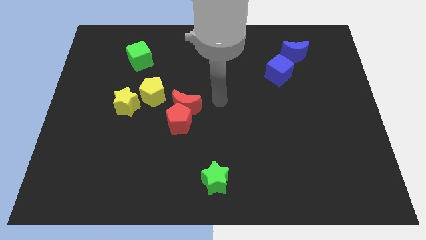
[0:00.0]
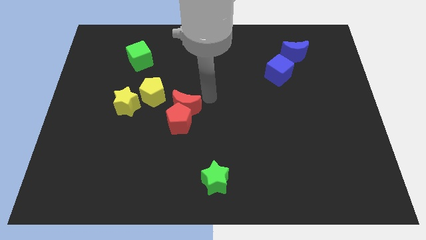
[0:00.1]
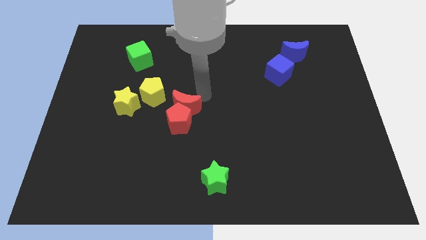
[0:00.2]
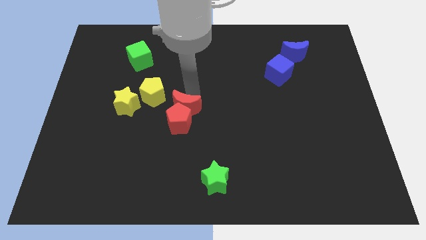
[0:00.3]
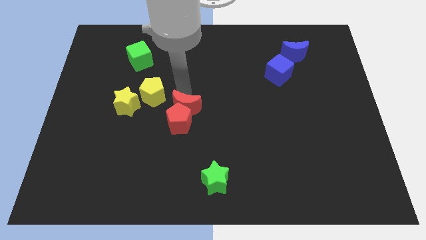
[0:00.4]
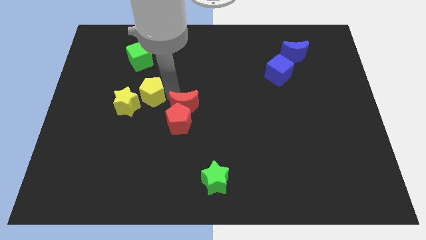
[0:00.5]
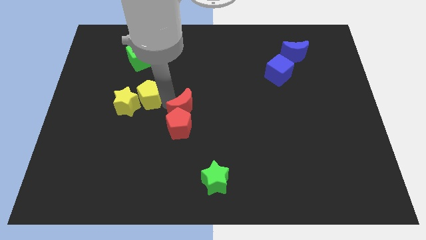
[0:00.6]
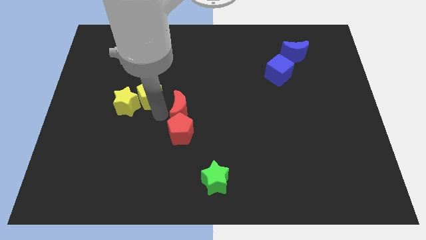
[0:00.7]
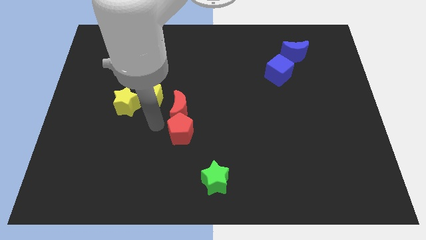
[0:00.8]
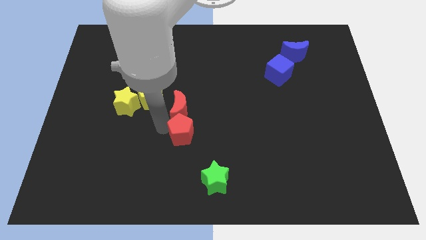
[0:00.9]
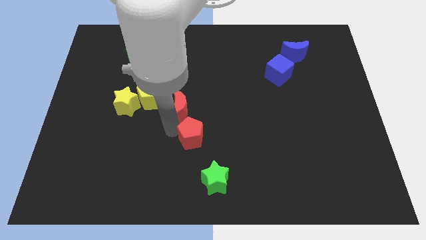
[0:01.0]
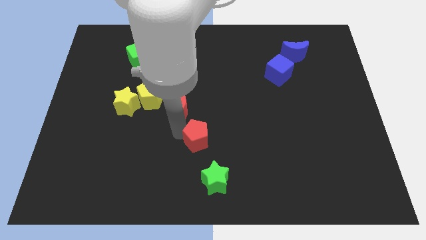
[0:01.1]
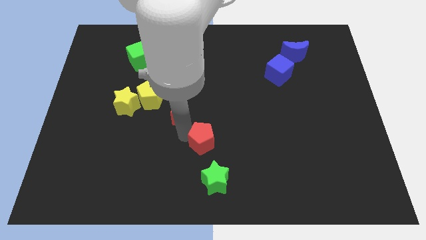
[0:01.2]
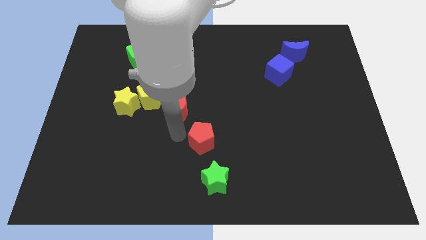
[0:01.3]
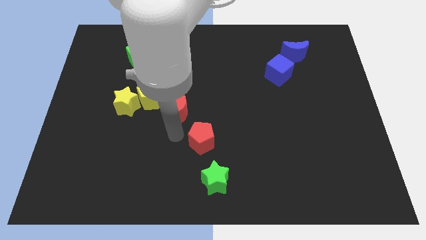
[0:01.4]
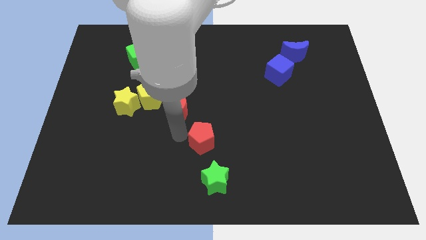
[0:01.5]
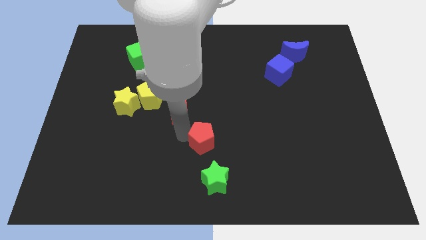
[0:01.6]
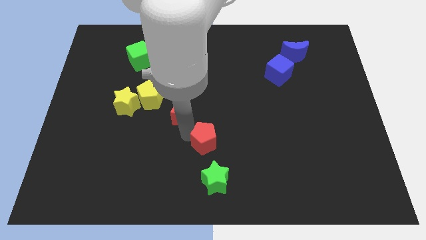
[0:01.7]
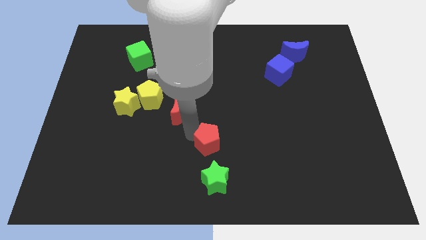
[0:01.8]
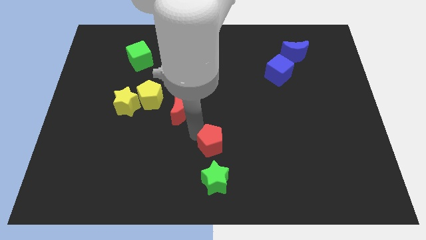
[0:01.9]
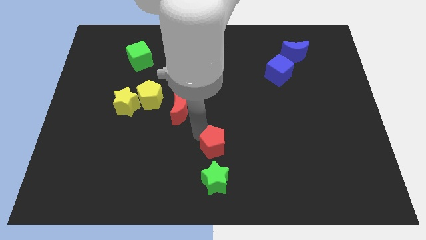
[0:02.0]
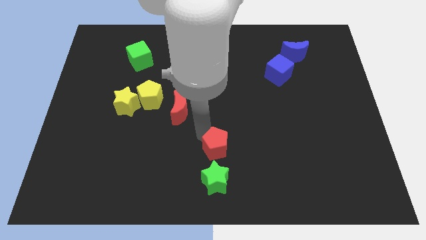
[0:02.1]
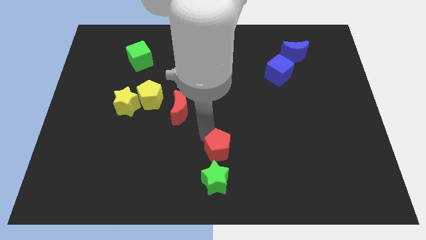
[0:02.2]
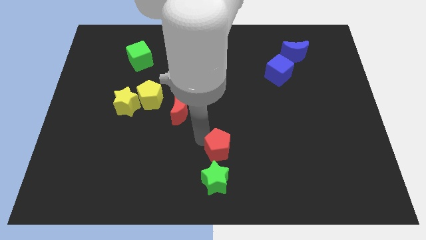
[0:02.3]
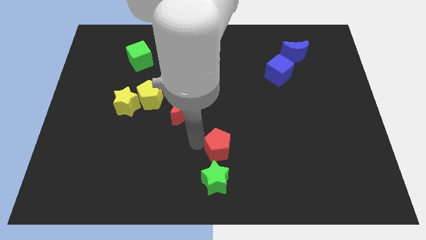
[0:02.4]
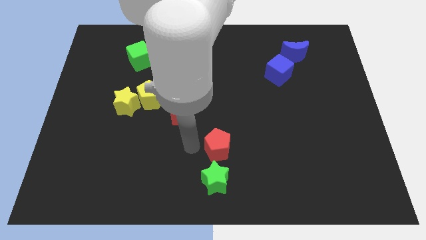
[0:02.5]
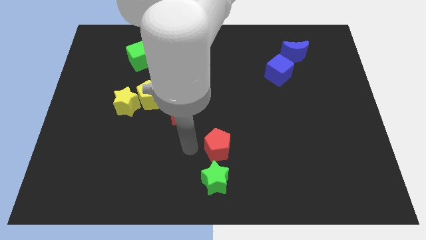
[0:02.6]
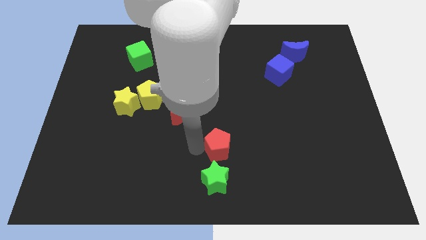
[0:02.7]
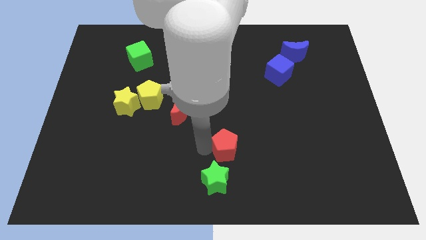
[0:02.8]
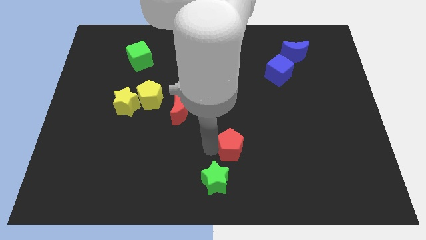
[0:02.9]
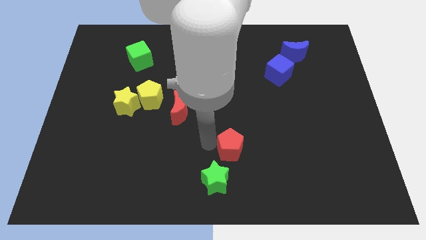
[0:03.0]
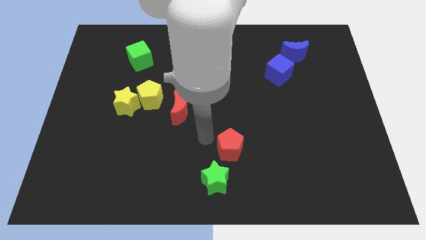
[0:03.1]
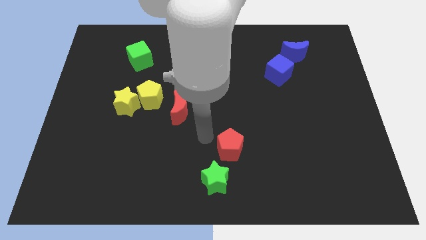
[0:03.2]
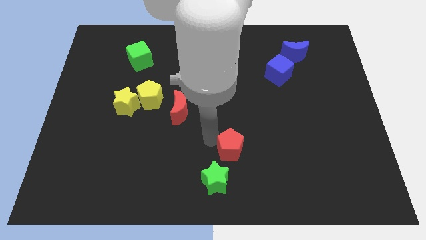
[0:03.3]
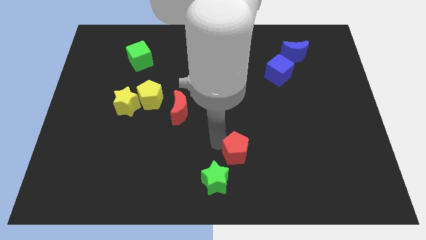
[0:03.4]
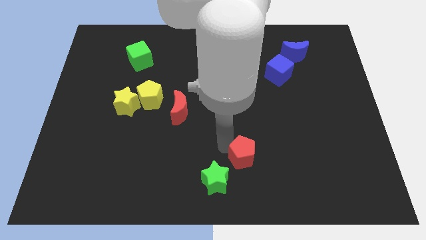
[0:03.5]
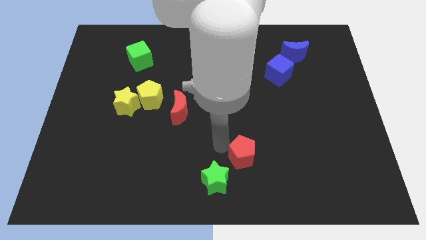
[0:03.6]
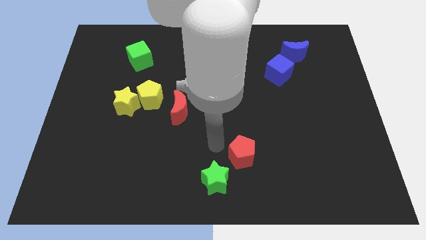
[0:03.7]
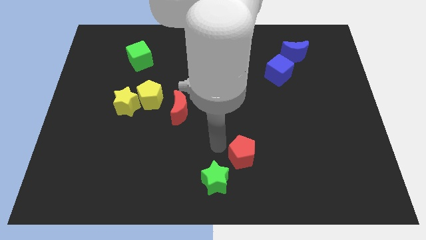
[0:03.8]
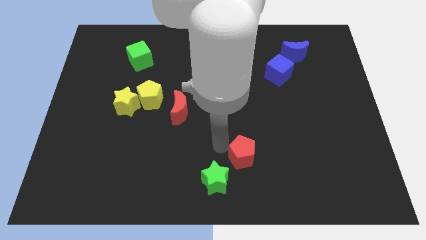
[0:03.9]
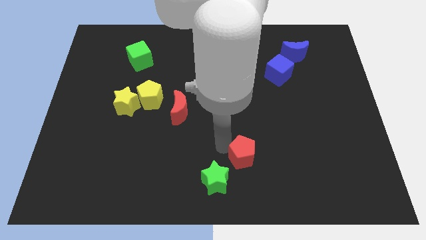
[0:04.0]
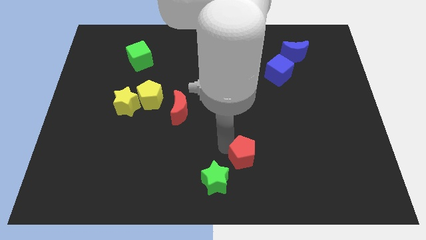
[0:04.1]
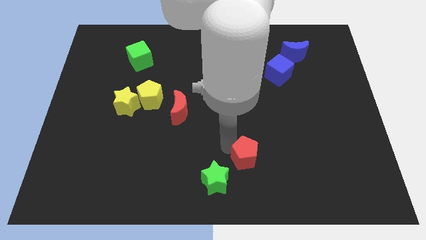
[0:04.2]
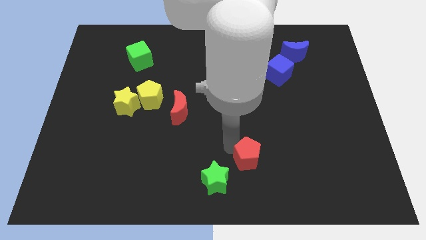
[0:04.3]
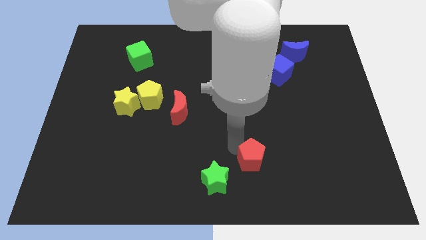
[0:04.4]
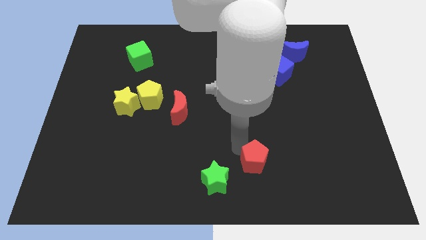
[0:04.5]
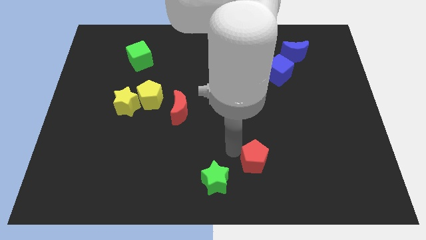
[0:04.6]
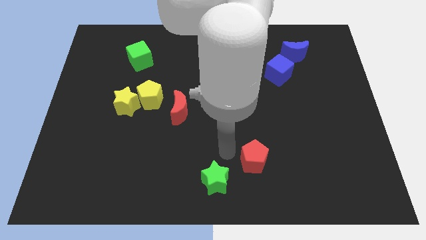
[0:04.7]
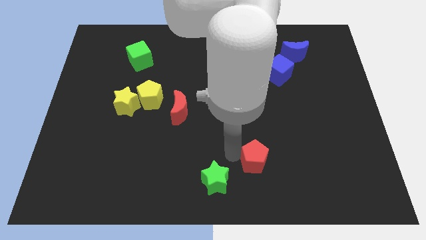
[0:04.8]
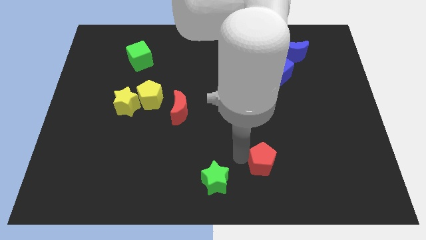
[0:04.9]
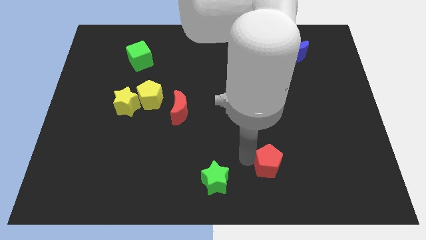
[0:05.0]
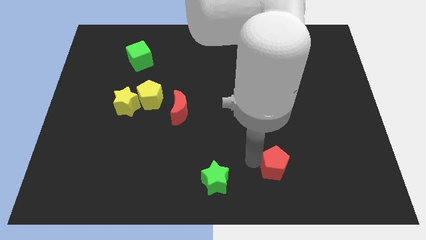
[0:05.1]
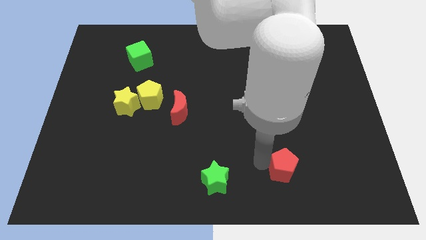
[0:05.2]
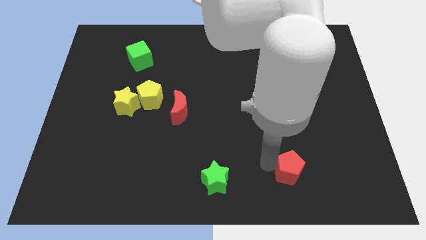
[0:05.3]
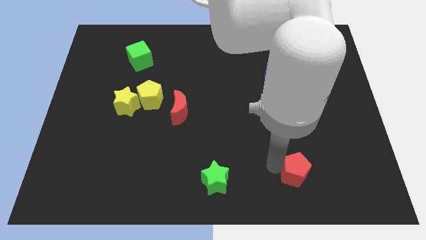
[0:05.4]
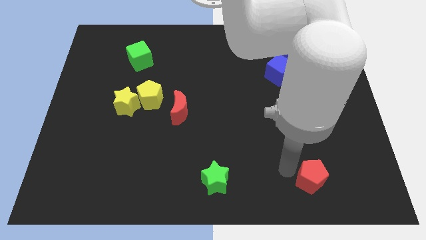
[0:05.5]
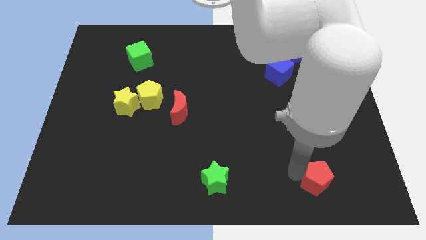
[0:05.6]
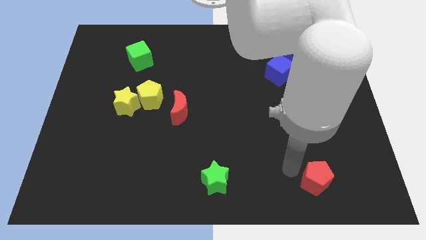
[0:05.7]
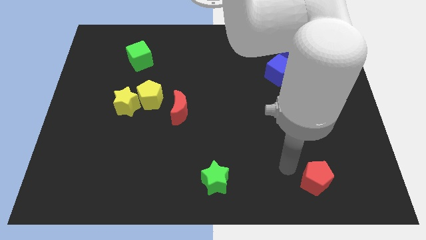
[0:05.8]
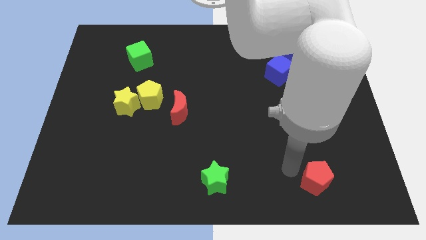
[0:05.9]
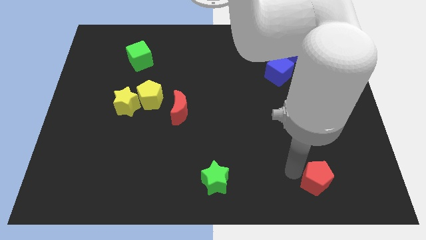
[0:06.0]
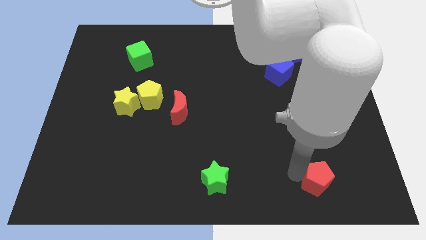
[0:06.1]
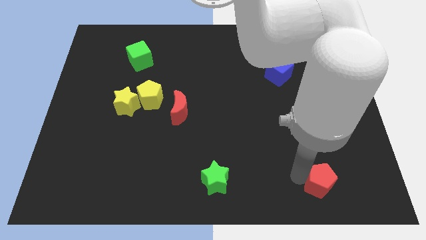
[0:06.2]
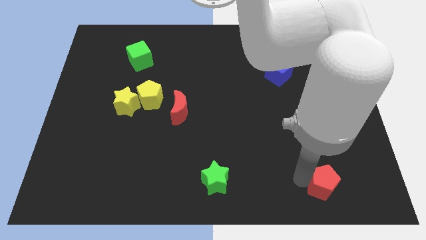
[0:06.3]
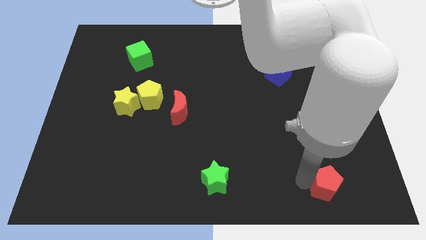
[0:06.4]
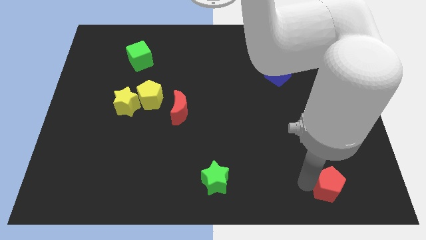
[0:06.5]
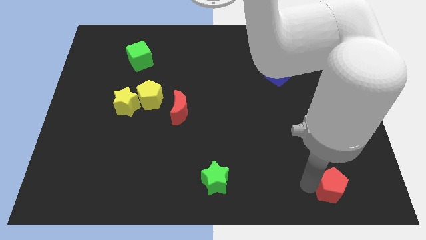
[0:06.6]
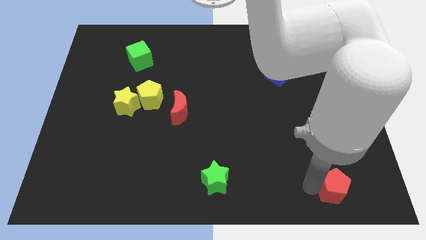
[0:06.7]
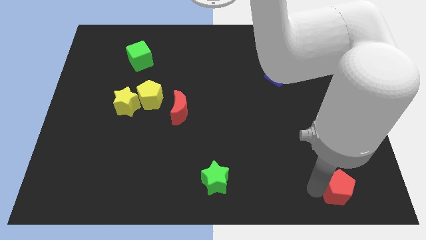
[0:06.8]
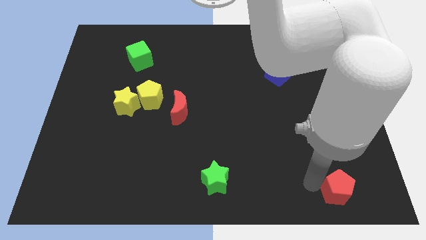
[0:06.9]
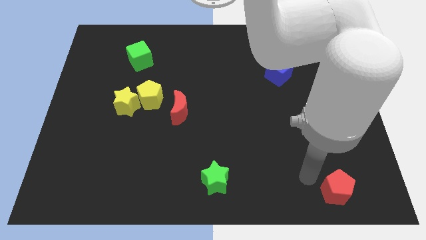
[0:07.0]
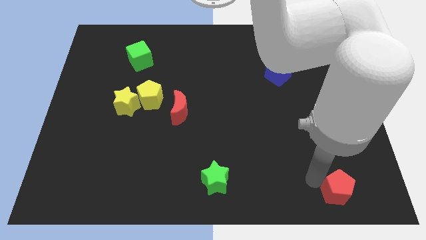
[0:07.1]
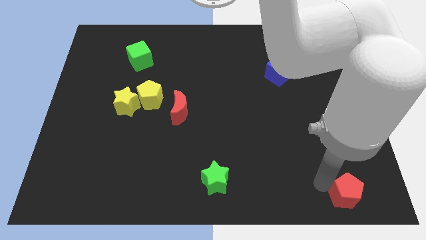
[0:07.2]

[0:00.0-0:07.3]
push the red pentagon to the bottom right corner
